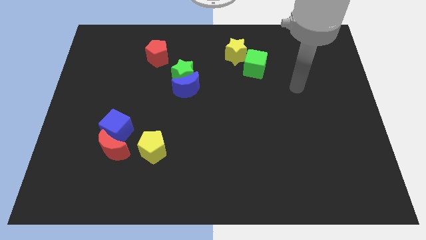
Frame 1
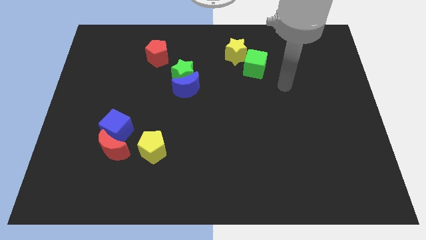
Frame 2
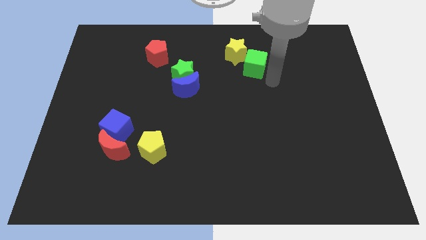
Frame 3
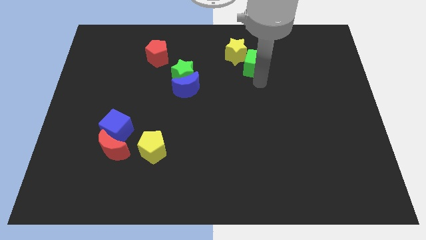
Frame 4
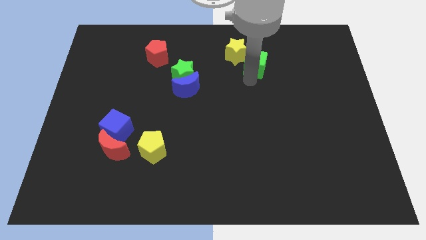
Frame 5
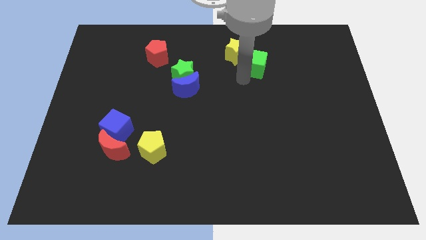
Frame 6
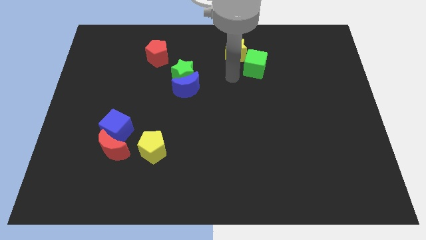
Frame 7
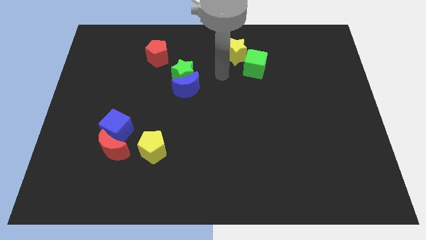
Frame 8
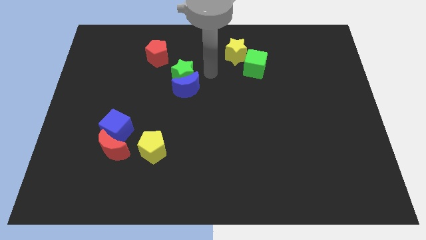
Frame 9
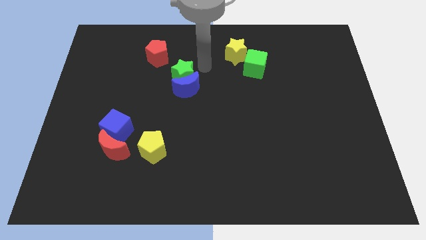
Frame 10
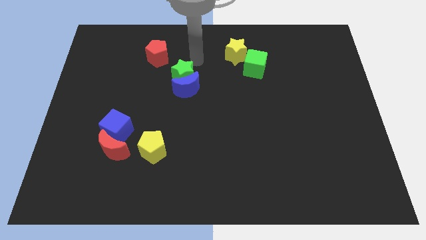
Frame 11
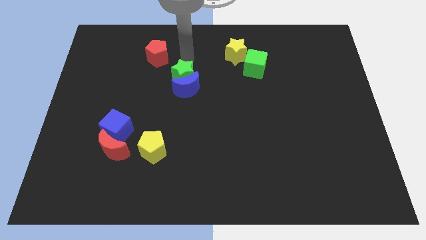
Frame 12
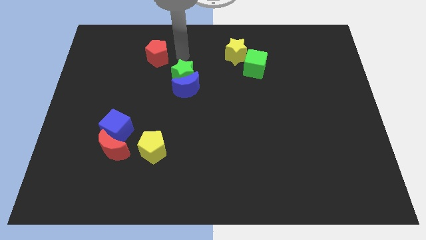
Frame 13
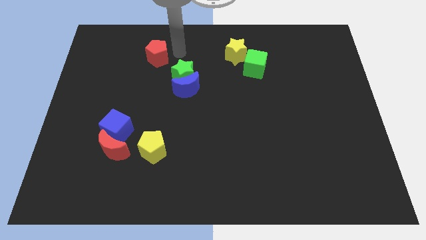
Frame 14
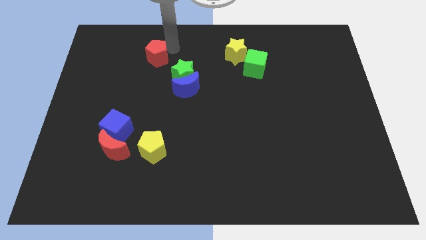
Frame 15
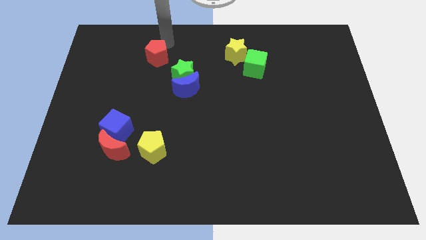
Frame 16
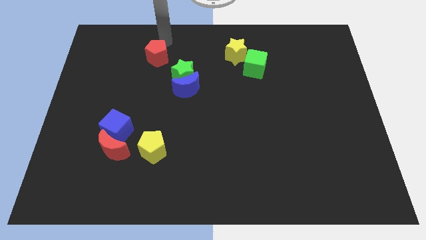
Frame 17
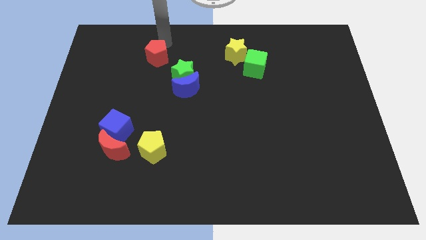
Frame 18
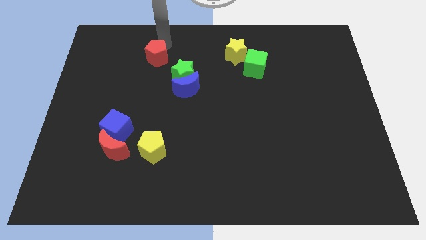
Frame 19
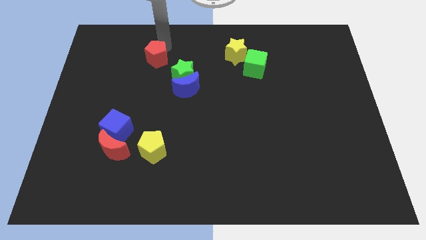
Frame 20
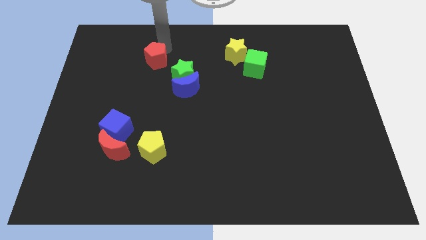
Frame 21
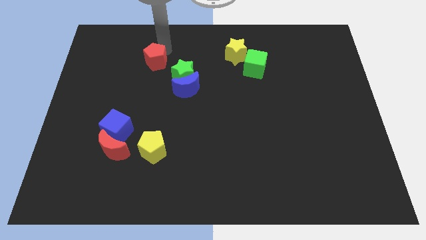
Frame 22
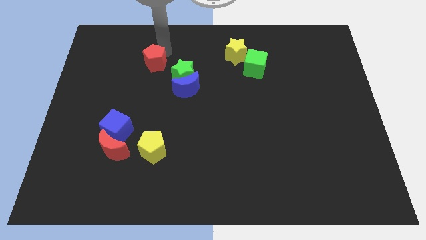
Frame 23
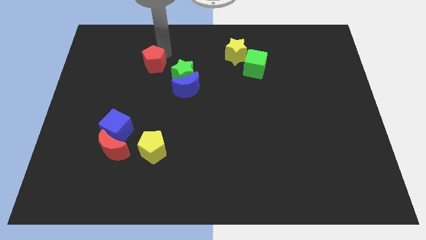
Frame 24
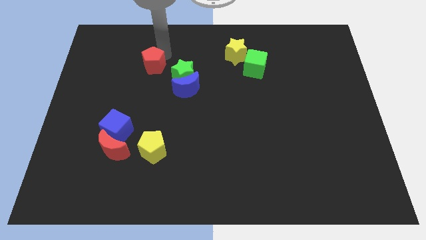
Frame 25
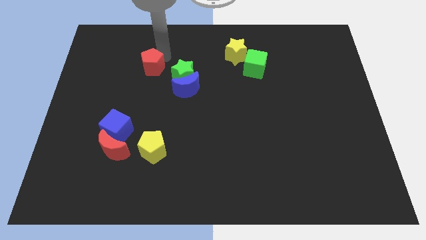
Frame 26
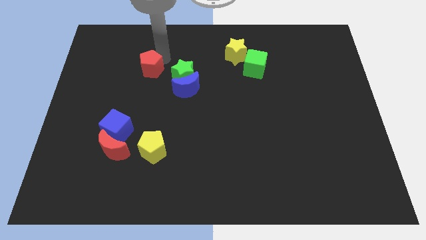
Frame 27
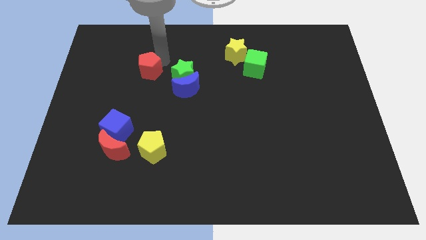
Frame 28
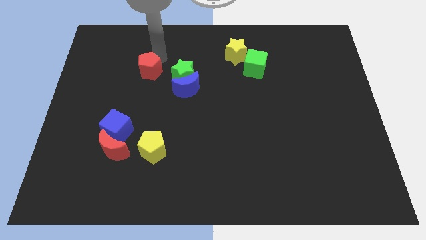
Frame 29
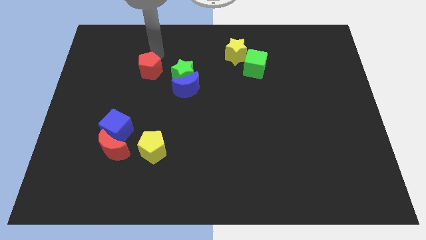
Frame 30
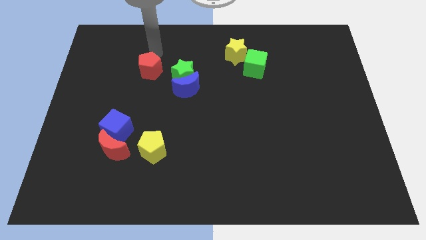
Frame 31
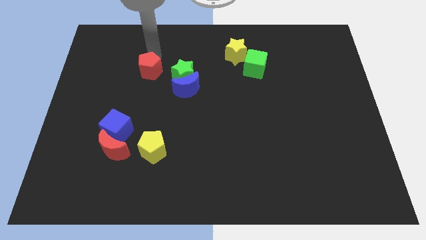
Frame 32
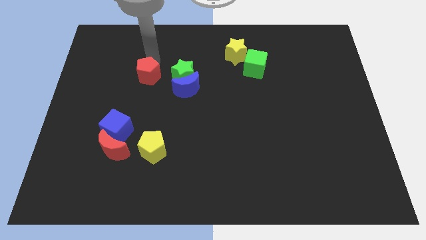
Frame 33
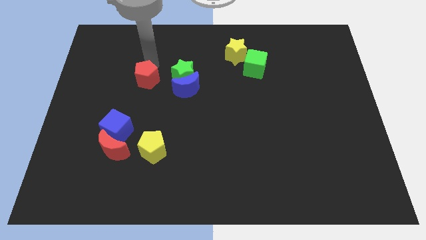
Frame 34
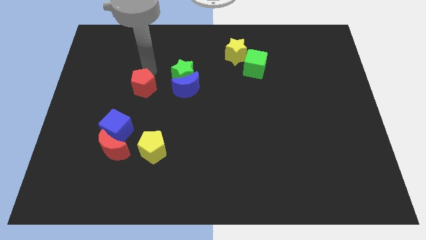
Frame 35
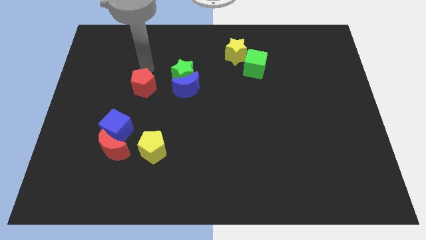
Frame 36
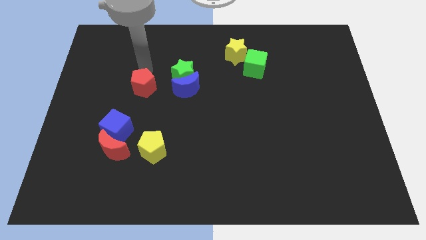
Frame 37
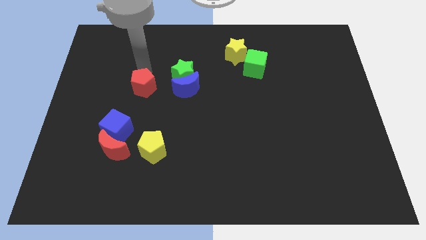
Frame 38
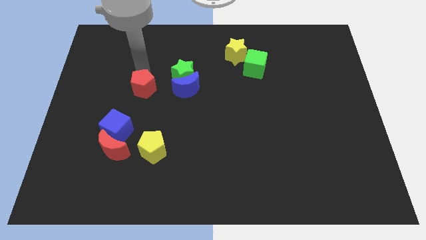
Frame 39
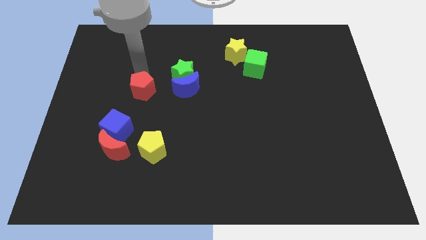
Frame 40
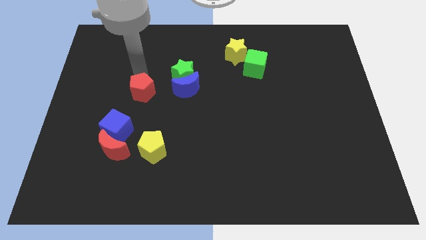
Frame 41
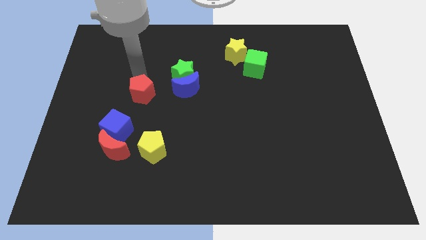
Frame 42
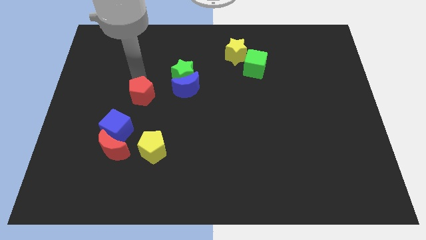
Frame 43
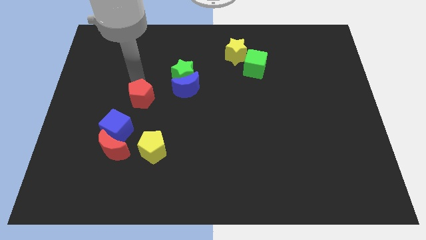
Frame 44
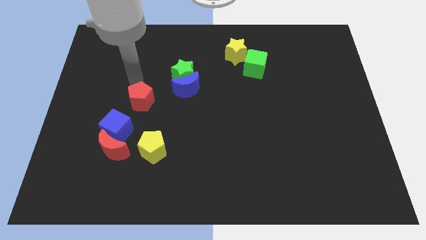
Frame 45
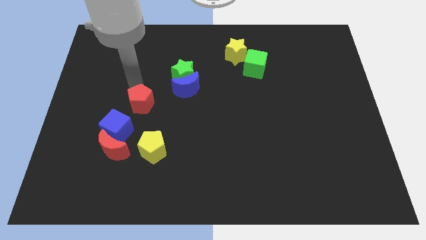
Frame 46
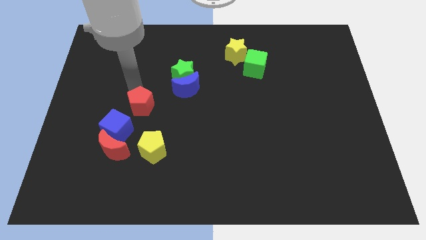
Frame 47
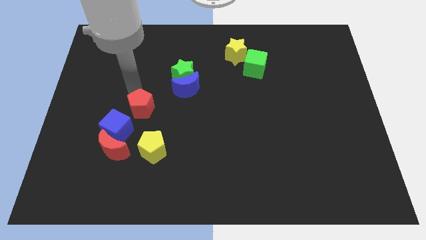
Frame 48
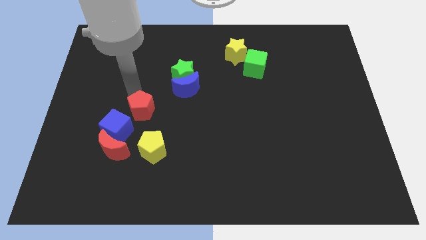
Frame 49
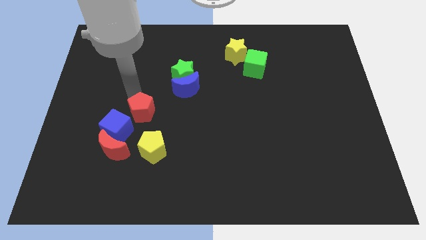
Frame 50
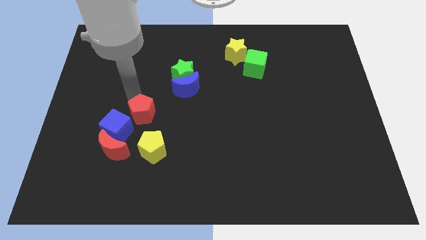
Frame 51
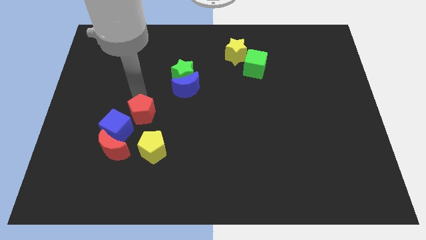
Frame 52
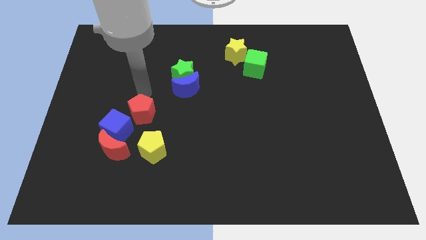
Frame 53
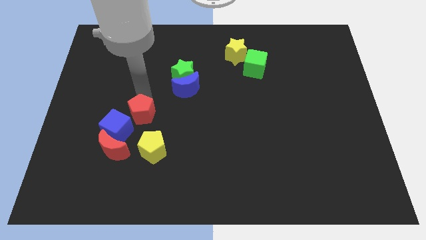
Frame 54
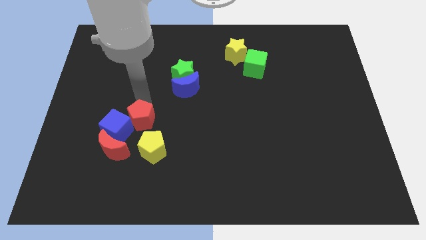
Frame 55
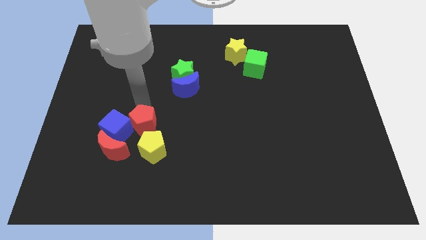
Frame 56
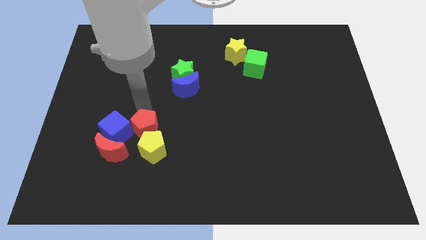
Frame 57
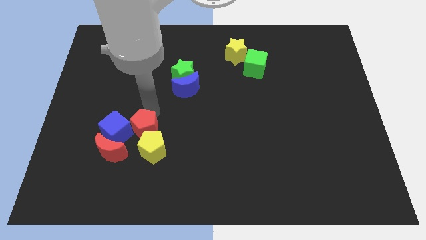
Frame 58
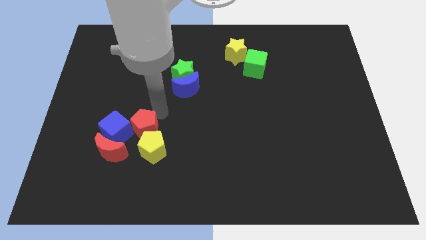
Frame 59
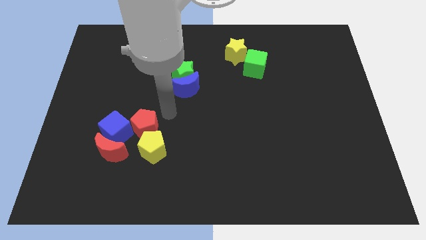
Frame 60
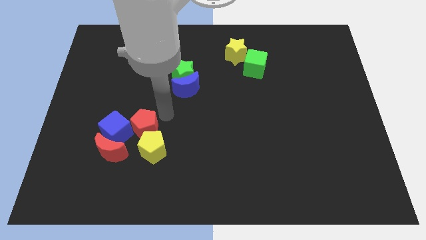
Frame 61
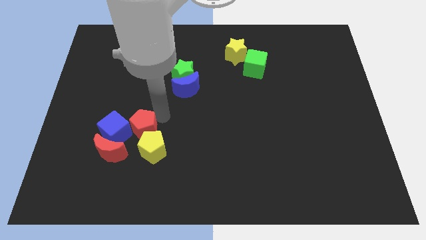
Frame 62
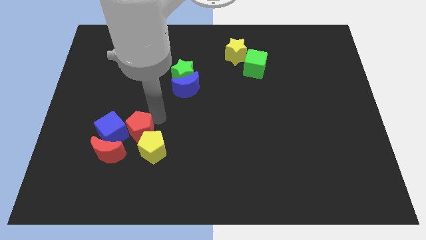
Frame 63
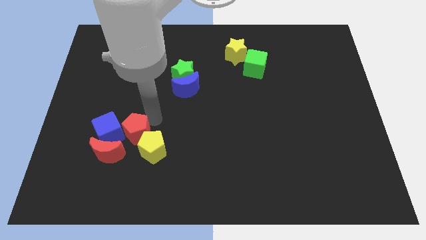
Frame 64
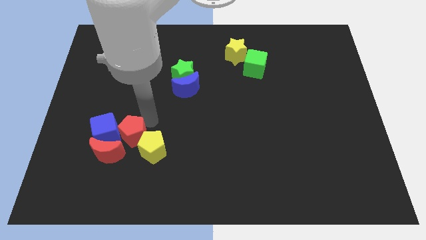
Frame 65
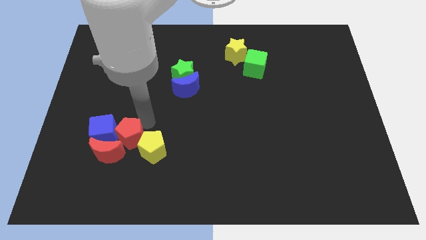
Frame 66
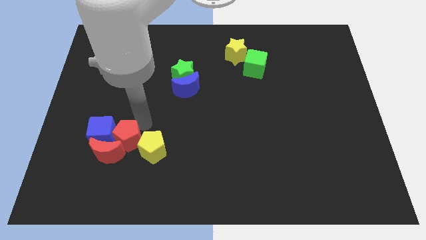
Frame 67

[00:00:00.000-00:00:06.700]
move the red pentagon towards the red moon
